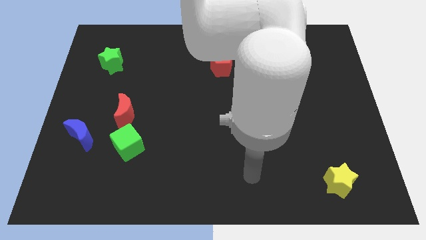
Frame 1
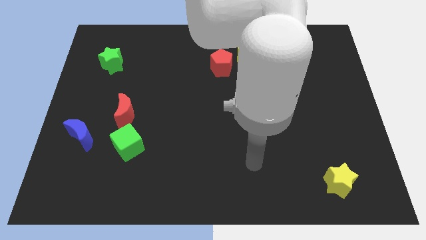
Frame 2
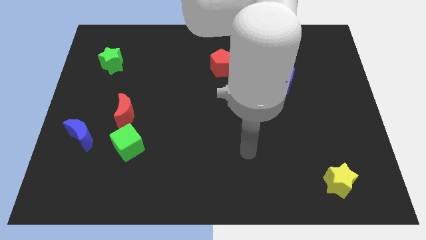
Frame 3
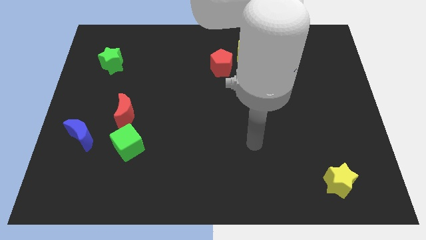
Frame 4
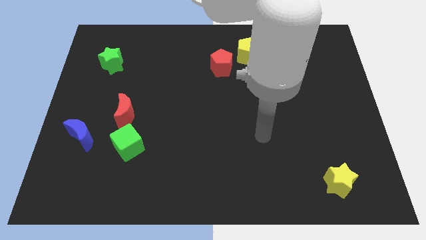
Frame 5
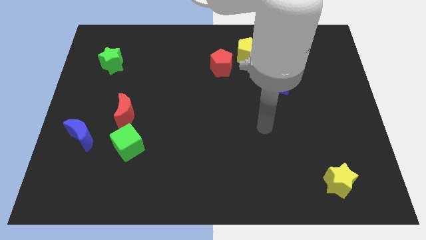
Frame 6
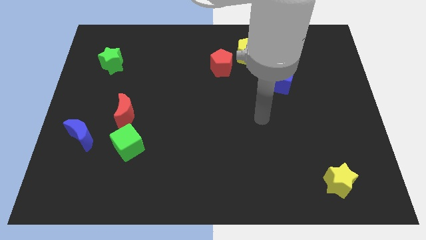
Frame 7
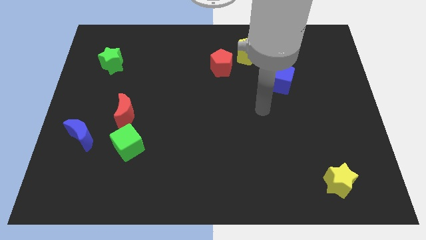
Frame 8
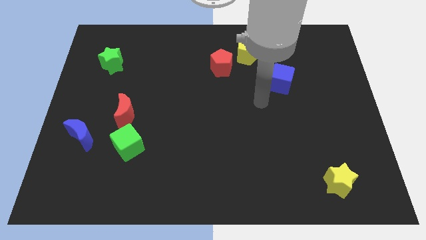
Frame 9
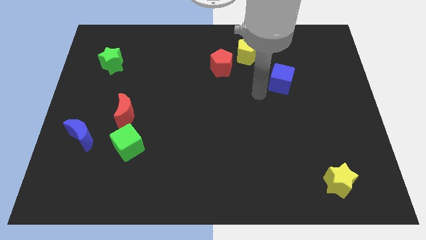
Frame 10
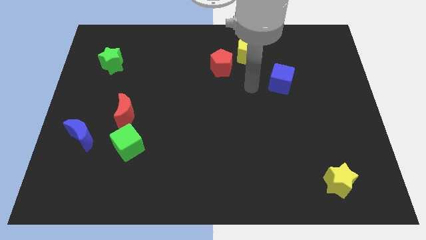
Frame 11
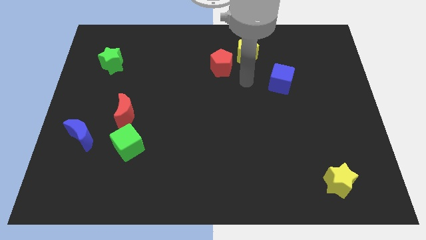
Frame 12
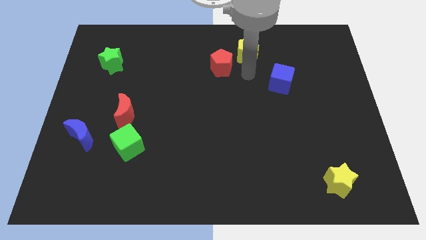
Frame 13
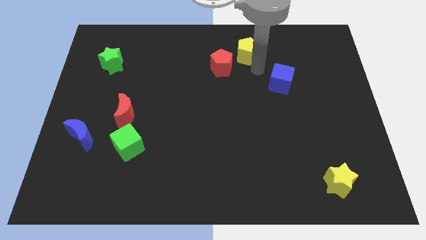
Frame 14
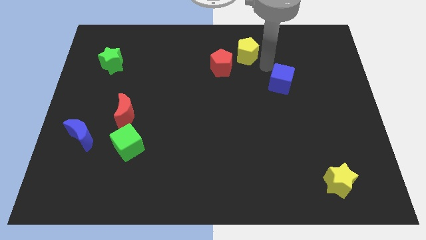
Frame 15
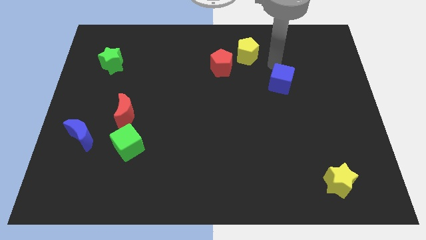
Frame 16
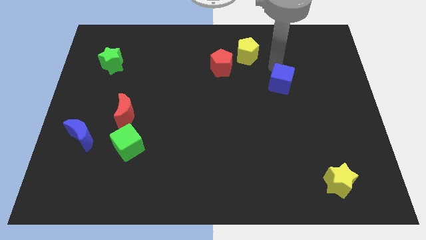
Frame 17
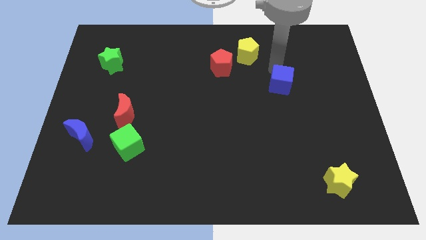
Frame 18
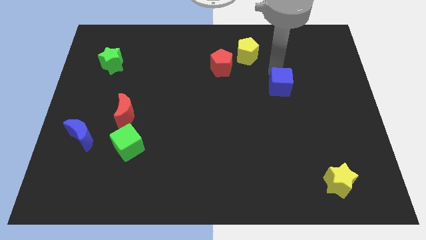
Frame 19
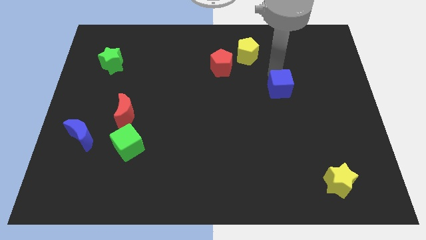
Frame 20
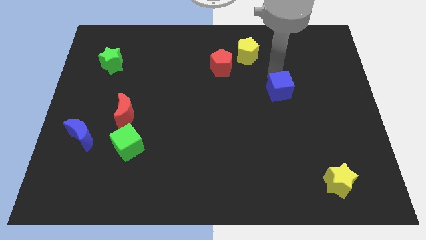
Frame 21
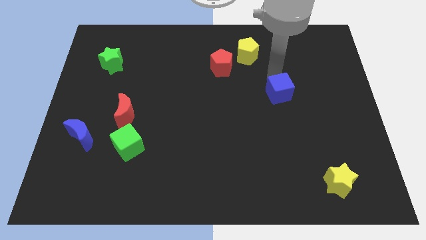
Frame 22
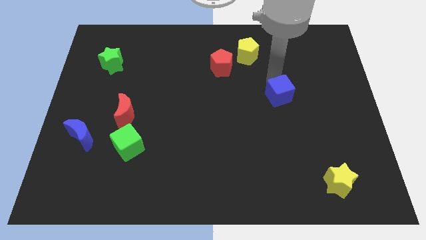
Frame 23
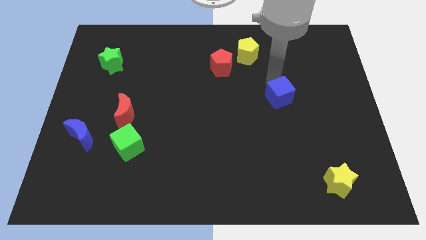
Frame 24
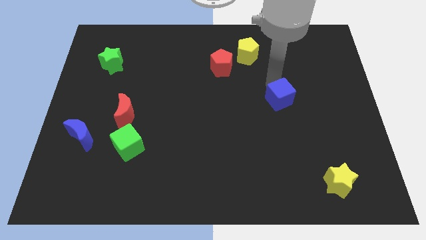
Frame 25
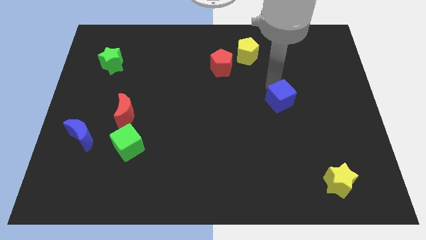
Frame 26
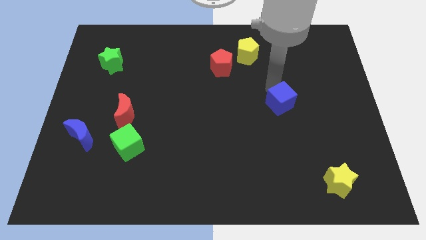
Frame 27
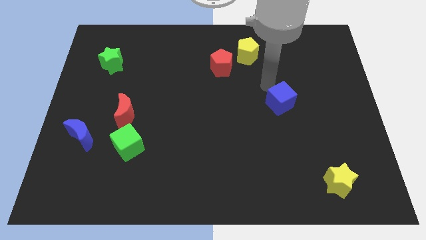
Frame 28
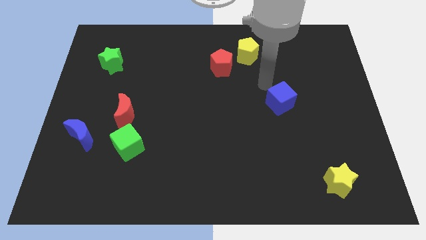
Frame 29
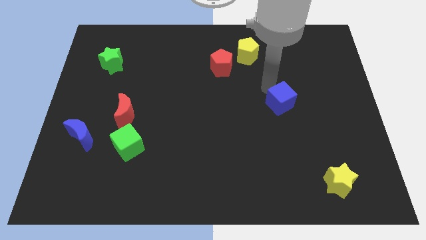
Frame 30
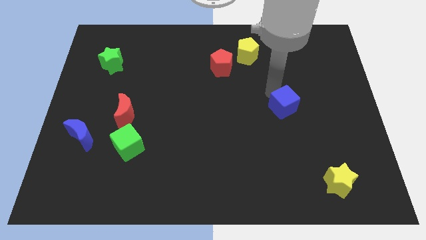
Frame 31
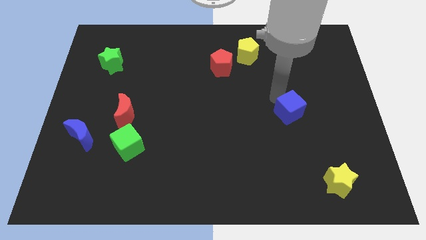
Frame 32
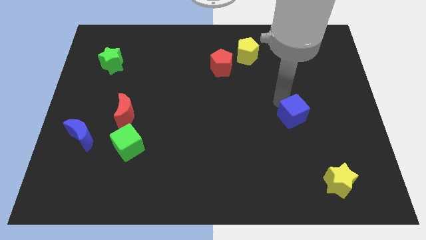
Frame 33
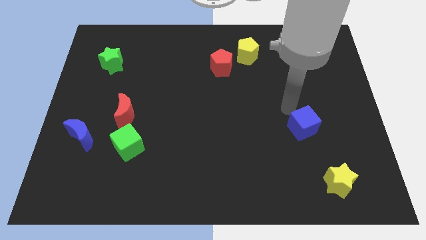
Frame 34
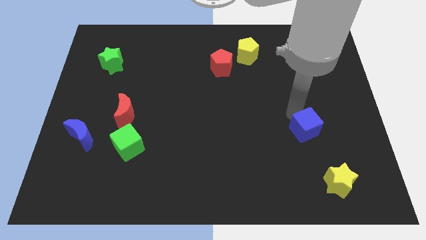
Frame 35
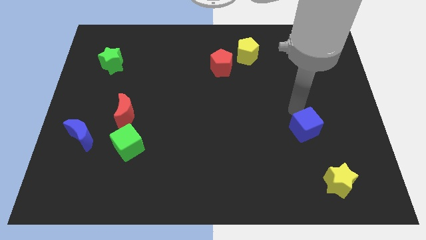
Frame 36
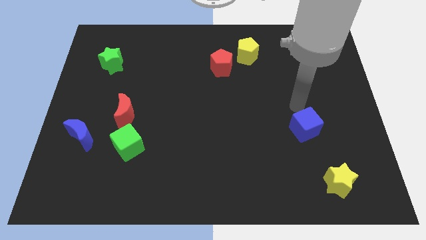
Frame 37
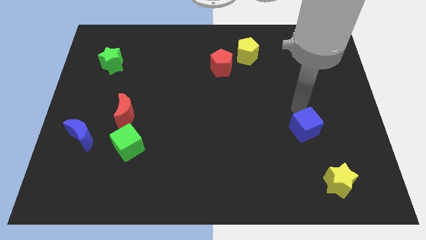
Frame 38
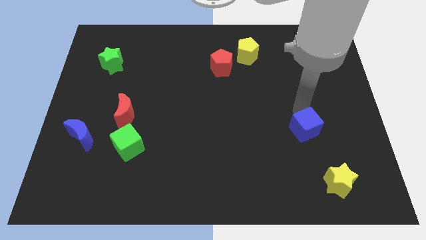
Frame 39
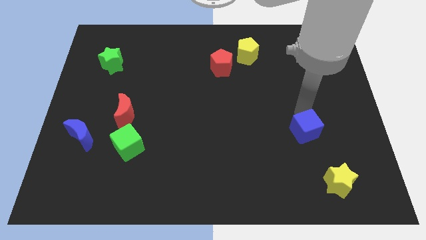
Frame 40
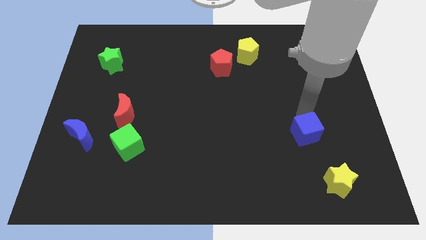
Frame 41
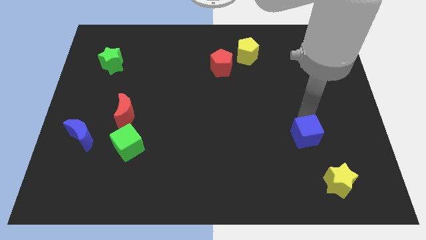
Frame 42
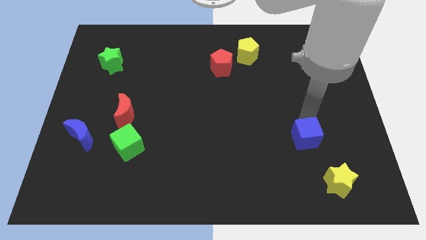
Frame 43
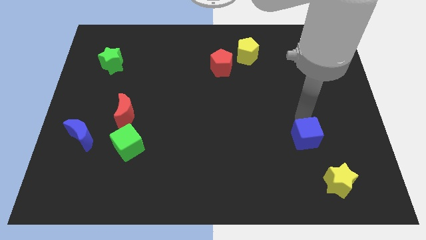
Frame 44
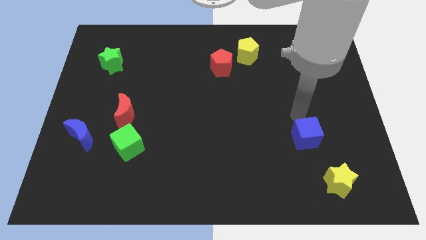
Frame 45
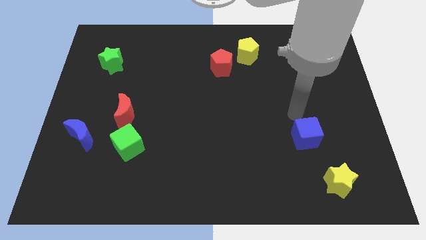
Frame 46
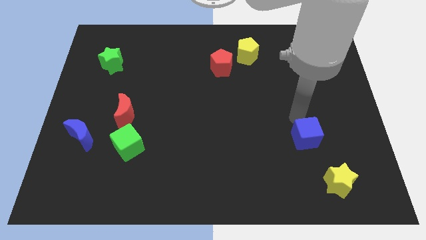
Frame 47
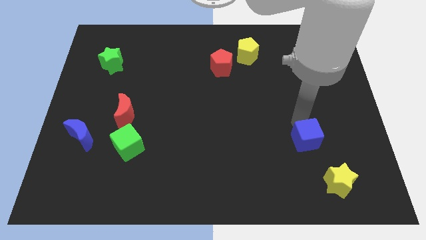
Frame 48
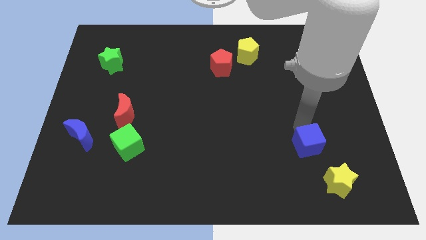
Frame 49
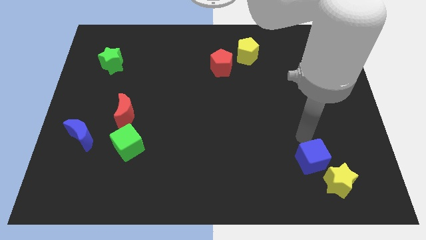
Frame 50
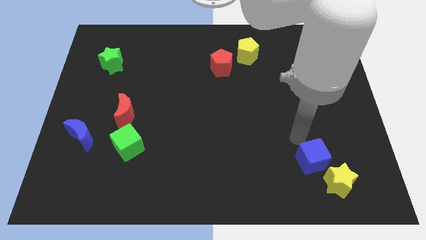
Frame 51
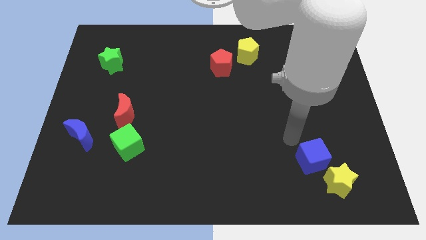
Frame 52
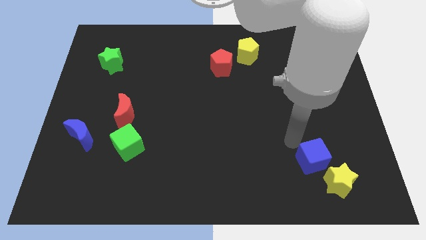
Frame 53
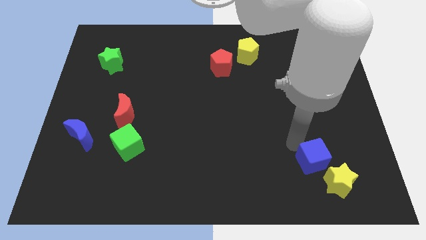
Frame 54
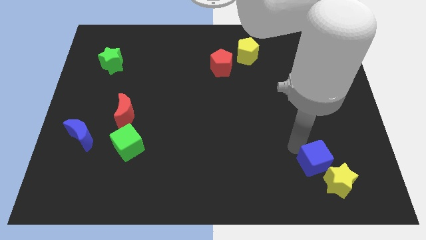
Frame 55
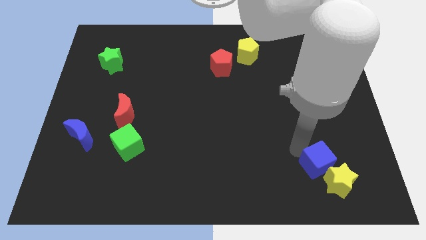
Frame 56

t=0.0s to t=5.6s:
push the blue cube next to the yellow star

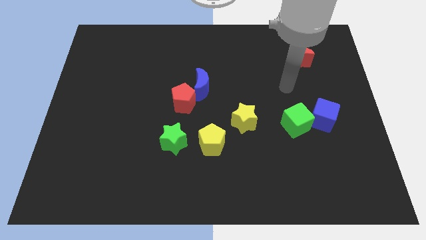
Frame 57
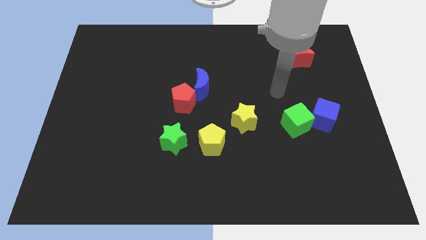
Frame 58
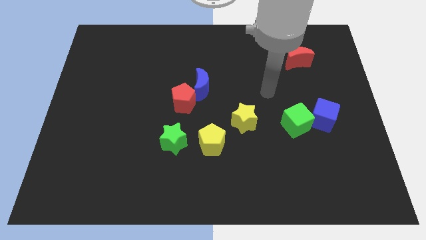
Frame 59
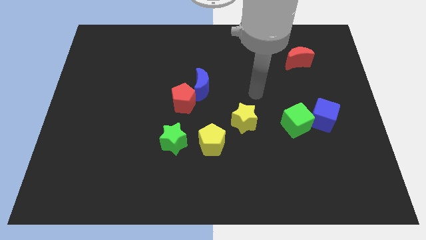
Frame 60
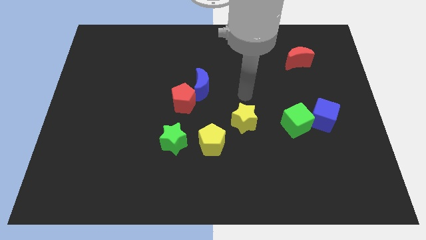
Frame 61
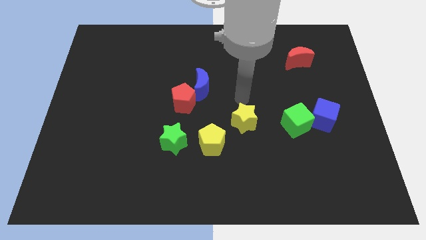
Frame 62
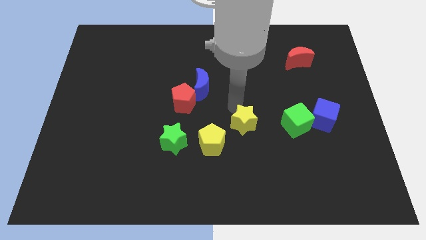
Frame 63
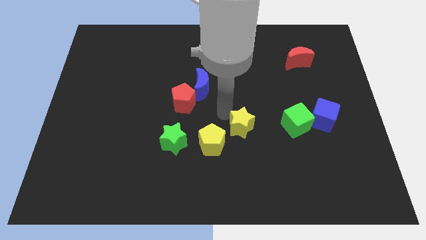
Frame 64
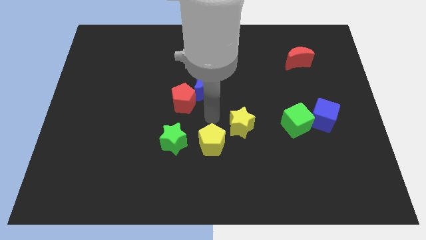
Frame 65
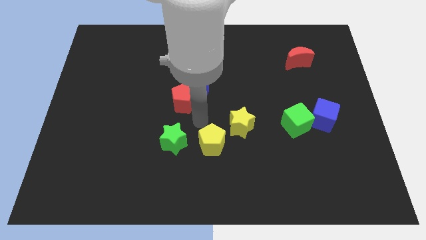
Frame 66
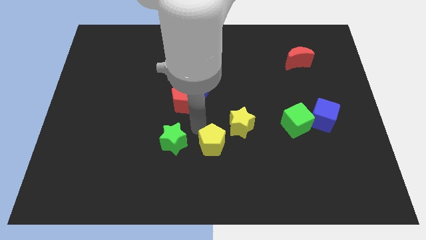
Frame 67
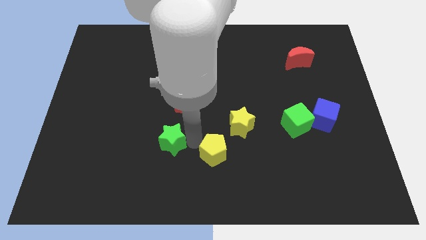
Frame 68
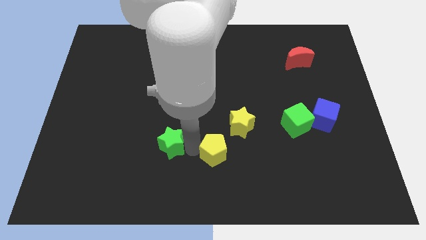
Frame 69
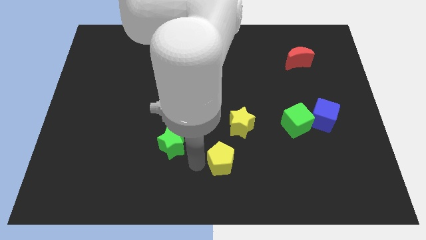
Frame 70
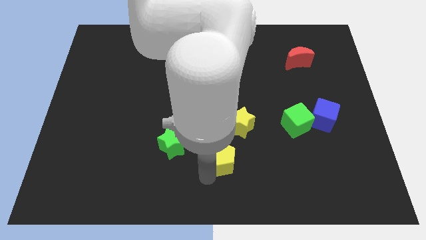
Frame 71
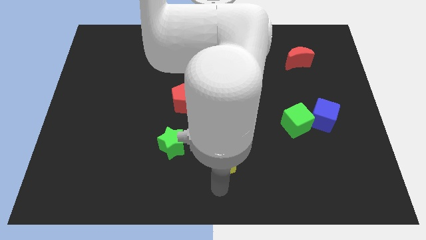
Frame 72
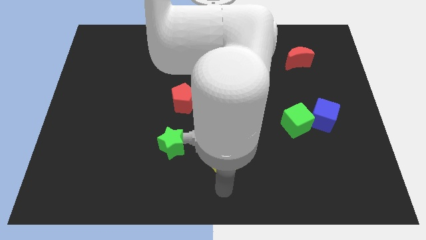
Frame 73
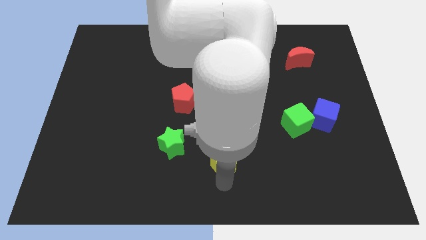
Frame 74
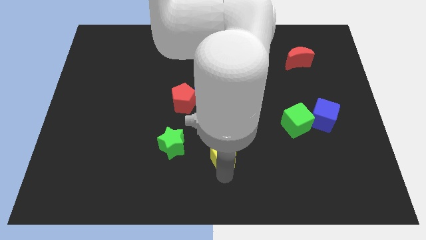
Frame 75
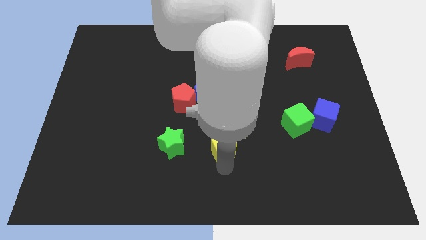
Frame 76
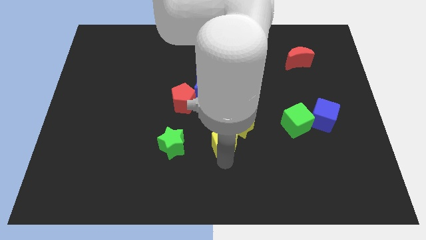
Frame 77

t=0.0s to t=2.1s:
put the yellow pentagon close to the yellow star
